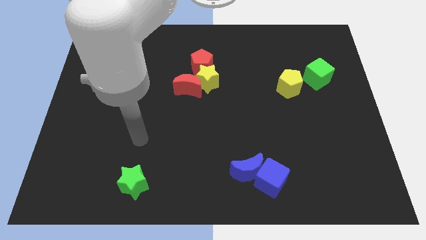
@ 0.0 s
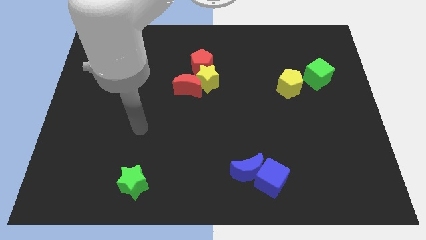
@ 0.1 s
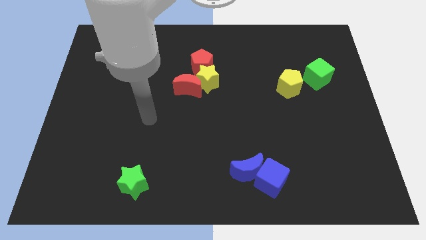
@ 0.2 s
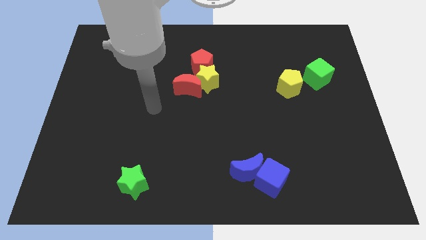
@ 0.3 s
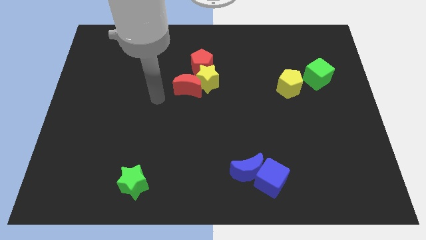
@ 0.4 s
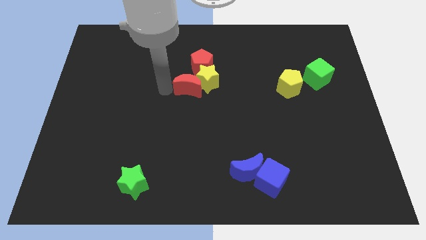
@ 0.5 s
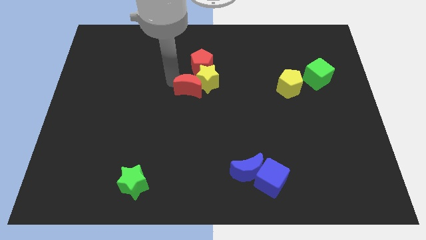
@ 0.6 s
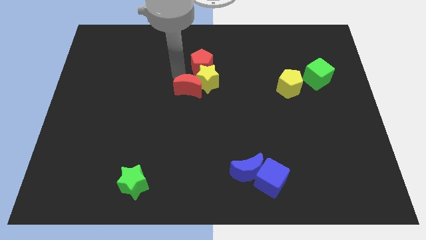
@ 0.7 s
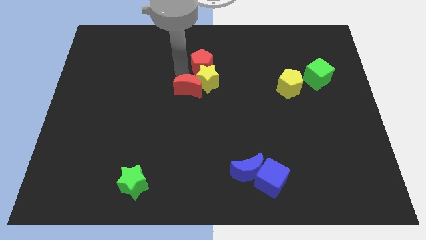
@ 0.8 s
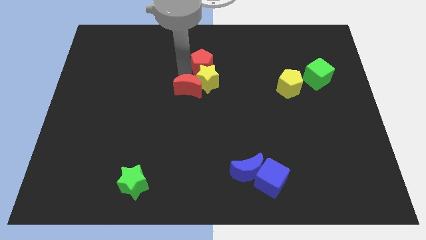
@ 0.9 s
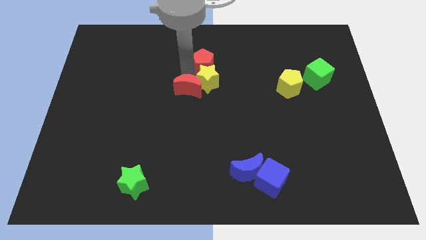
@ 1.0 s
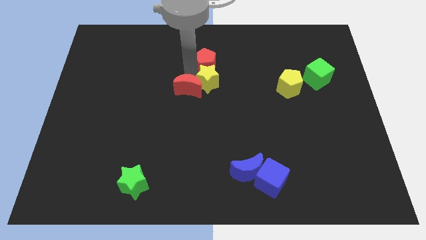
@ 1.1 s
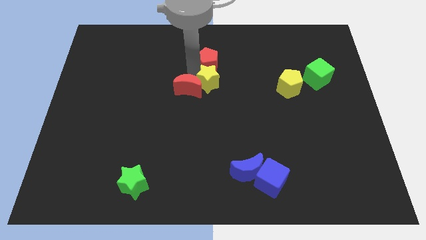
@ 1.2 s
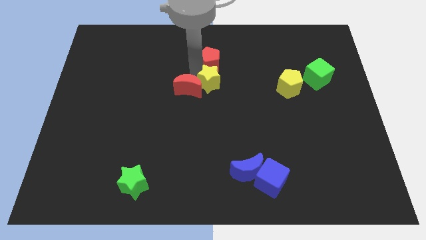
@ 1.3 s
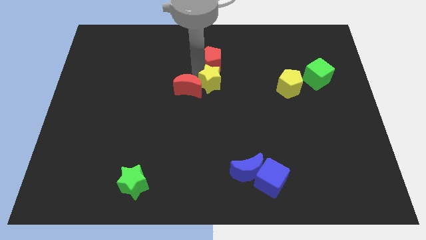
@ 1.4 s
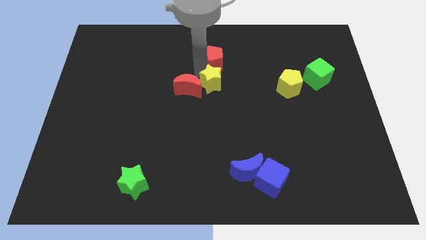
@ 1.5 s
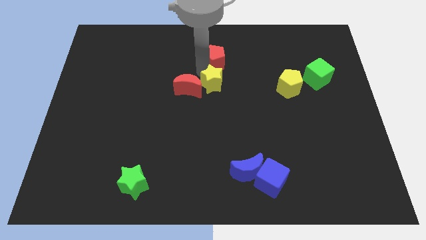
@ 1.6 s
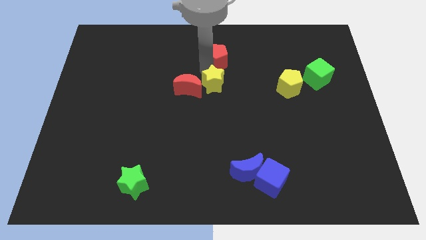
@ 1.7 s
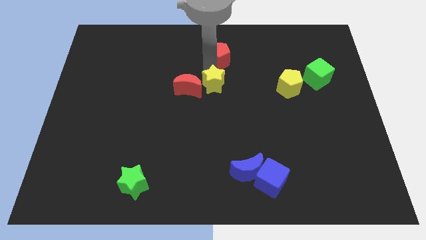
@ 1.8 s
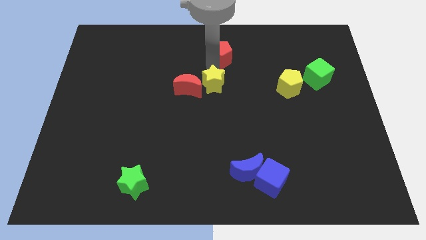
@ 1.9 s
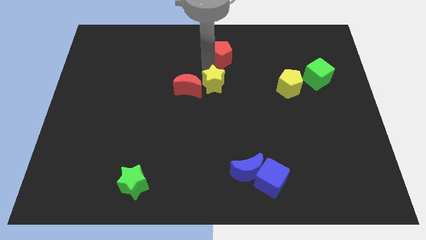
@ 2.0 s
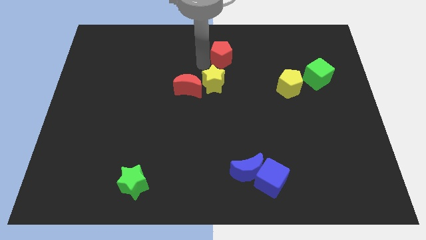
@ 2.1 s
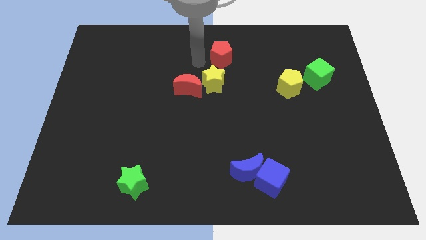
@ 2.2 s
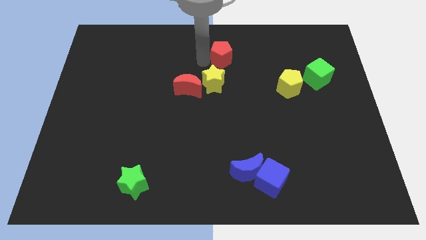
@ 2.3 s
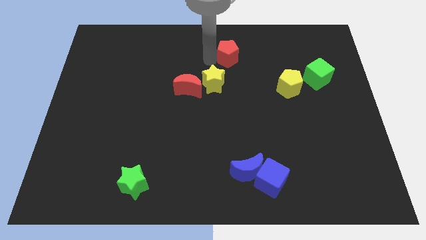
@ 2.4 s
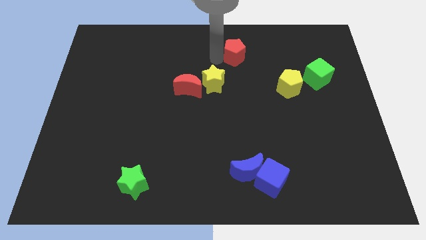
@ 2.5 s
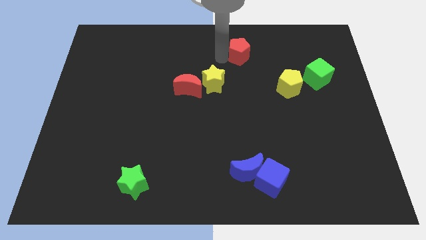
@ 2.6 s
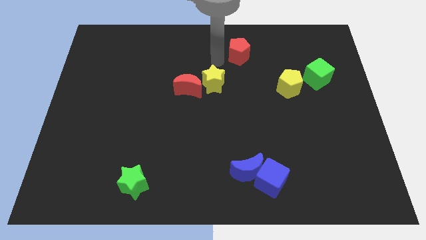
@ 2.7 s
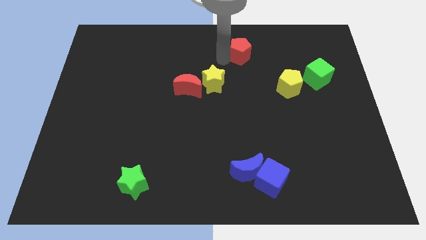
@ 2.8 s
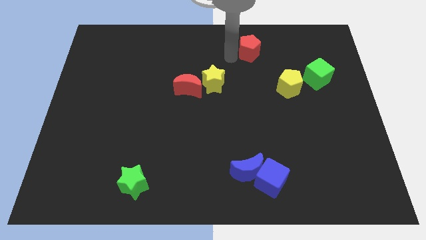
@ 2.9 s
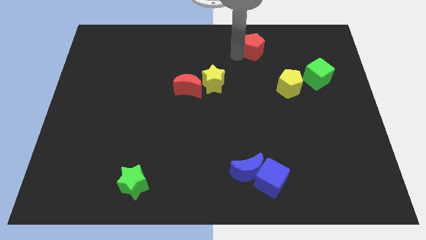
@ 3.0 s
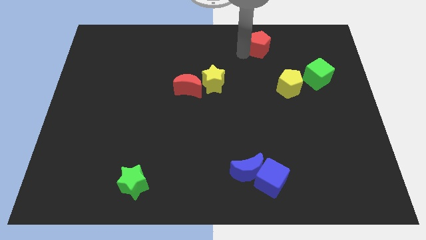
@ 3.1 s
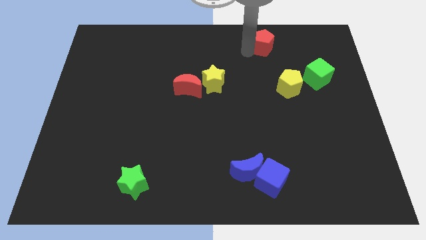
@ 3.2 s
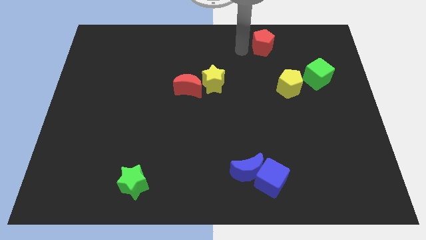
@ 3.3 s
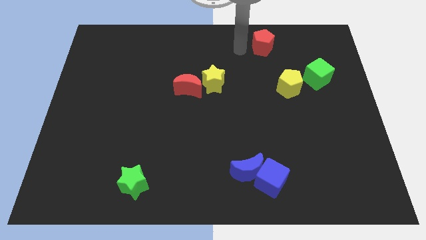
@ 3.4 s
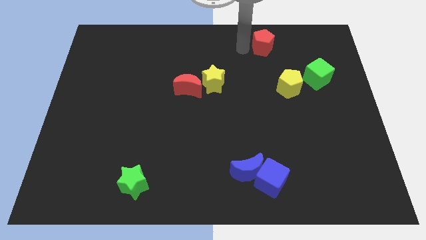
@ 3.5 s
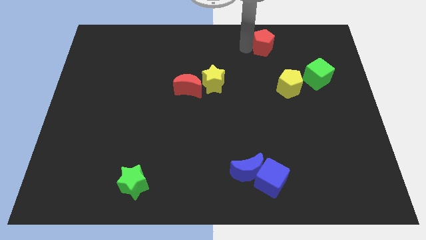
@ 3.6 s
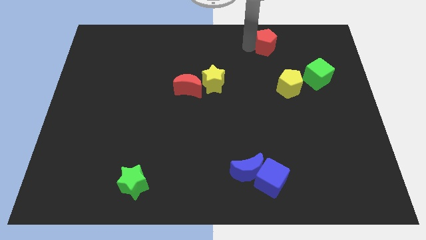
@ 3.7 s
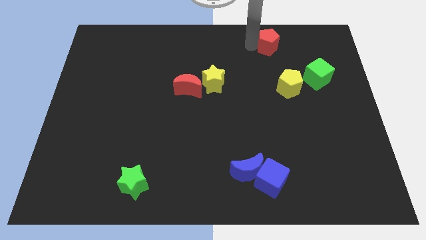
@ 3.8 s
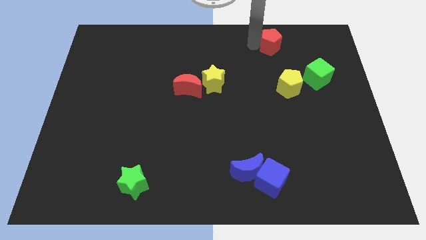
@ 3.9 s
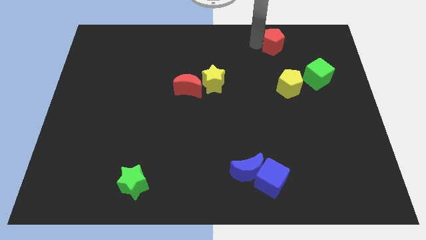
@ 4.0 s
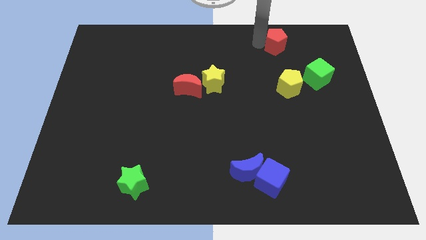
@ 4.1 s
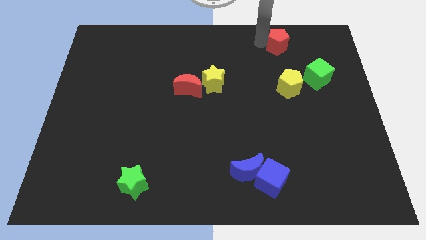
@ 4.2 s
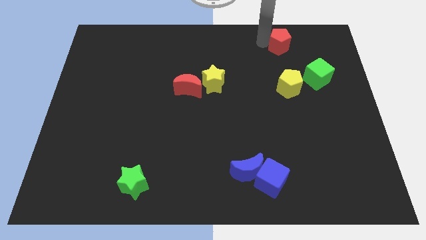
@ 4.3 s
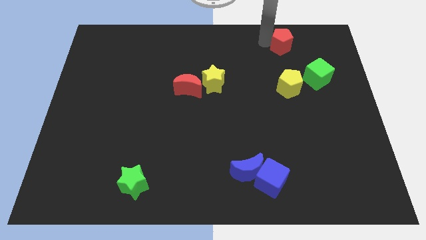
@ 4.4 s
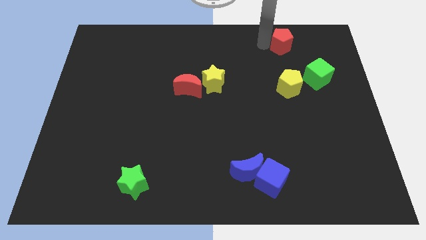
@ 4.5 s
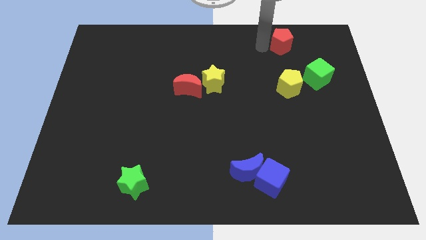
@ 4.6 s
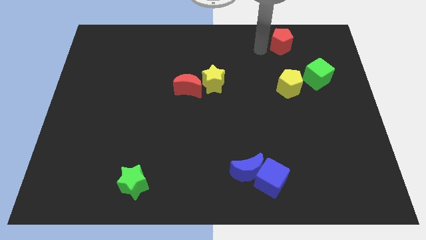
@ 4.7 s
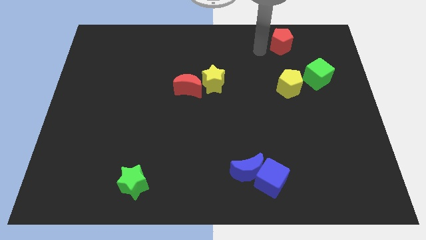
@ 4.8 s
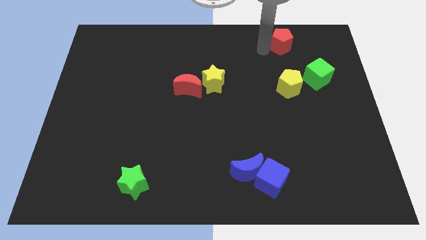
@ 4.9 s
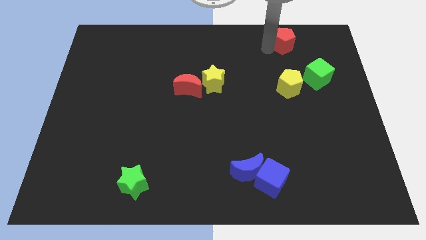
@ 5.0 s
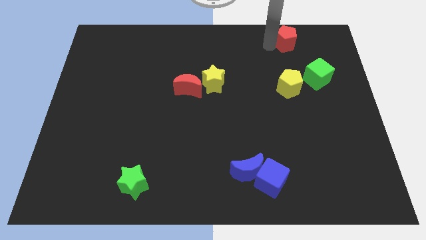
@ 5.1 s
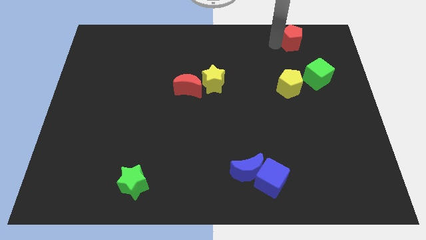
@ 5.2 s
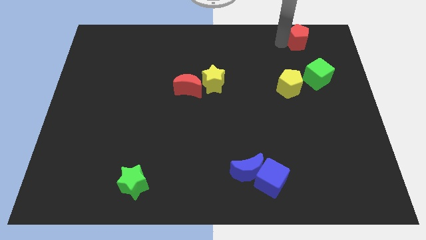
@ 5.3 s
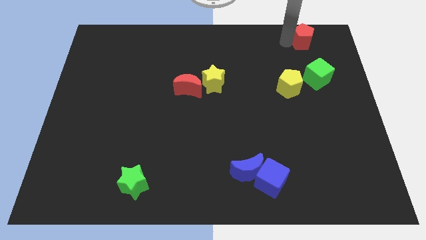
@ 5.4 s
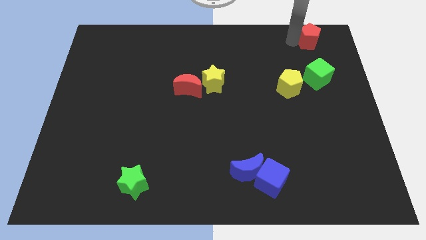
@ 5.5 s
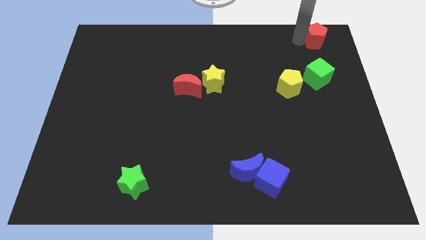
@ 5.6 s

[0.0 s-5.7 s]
push the red pentagon to the upper right corner
